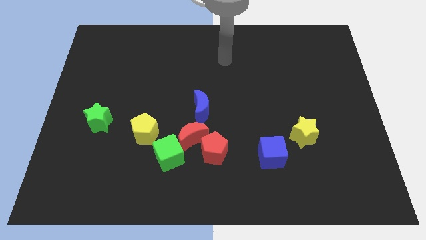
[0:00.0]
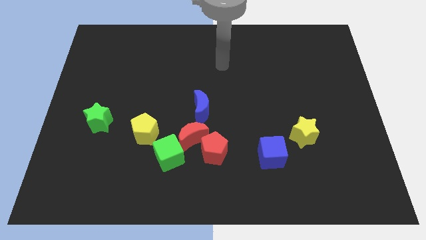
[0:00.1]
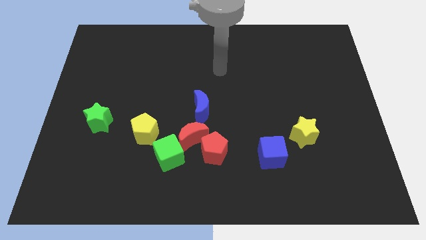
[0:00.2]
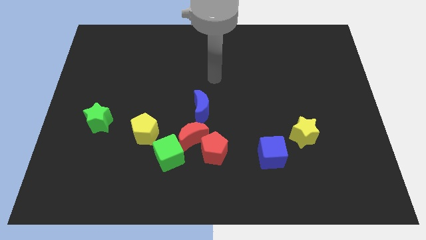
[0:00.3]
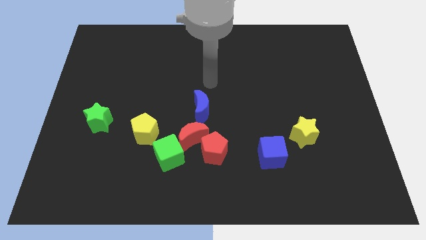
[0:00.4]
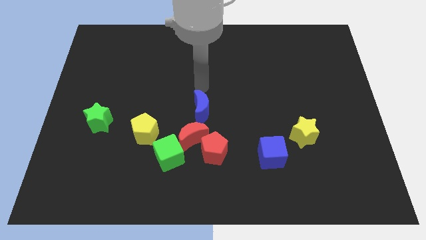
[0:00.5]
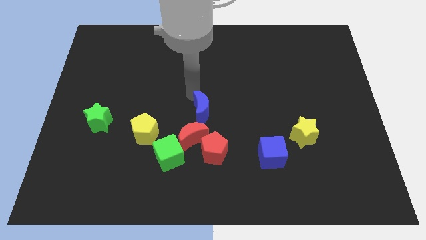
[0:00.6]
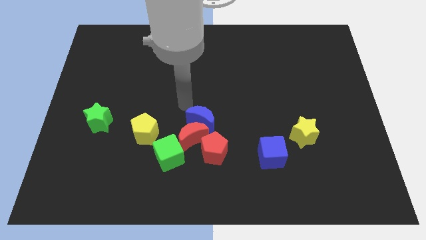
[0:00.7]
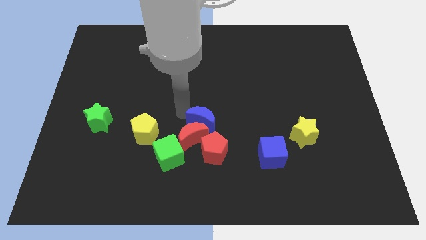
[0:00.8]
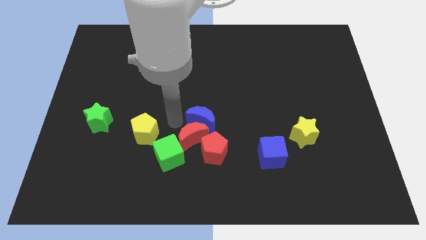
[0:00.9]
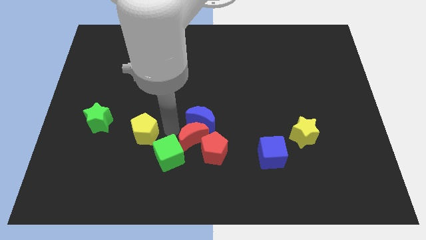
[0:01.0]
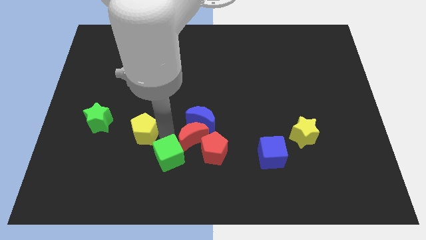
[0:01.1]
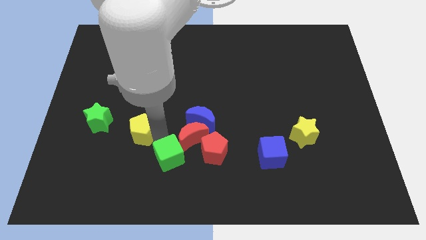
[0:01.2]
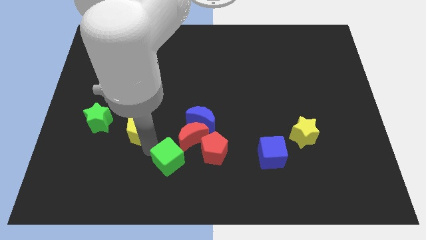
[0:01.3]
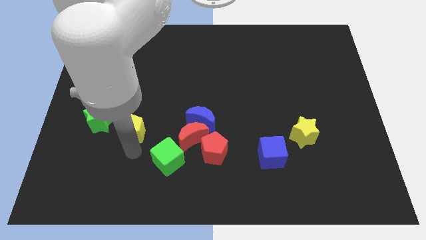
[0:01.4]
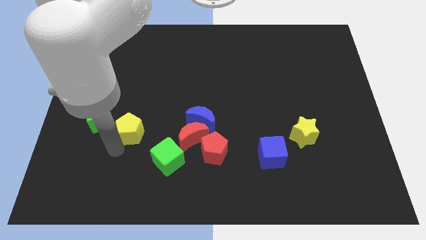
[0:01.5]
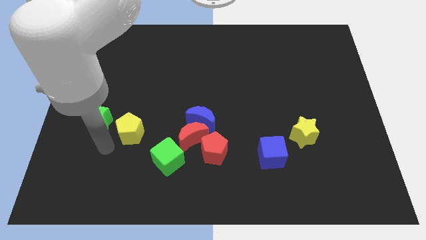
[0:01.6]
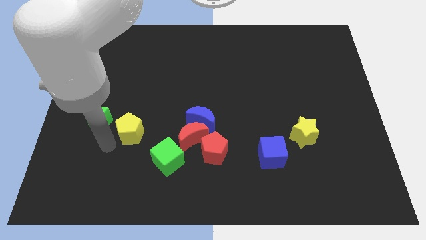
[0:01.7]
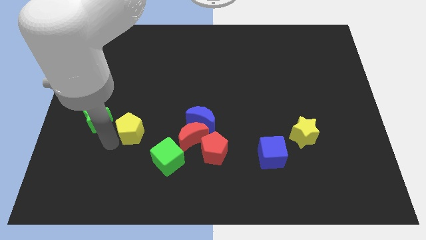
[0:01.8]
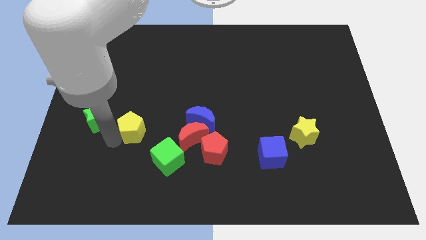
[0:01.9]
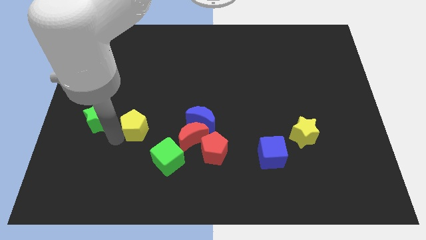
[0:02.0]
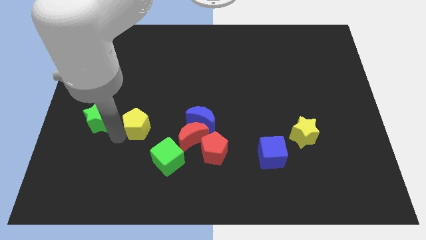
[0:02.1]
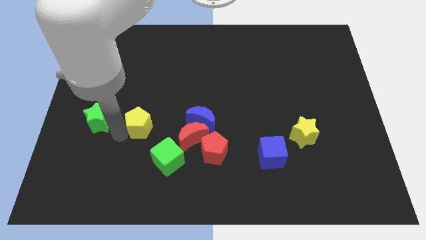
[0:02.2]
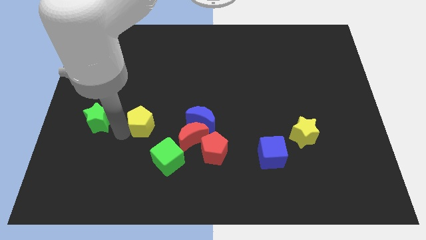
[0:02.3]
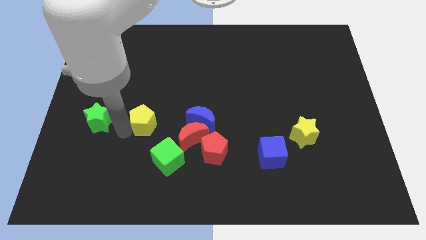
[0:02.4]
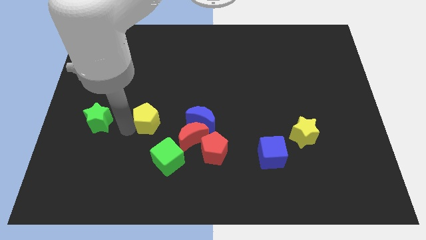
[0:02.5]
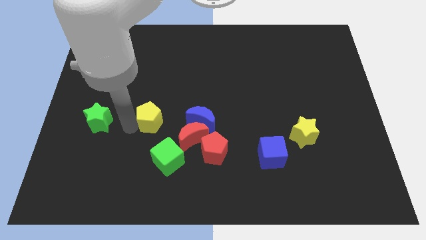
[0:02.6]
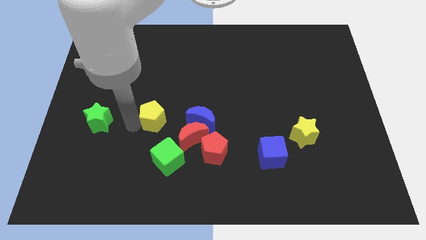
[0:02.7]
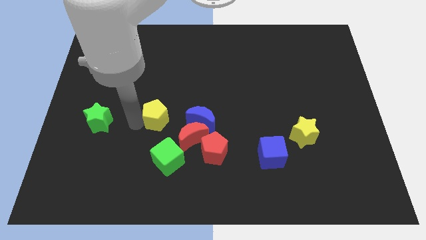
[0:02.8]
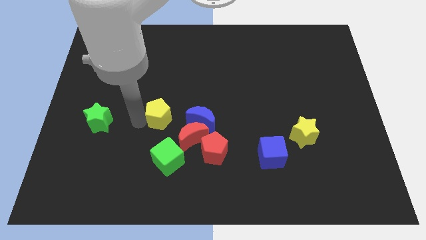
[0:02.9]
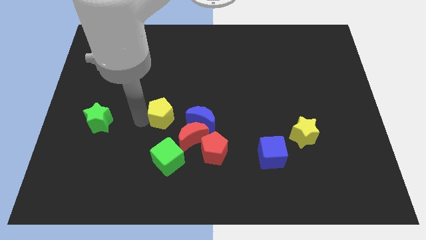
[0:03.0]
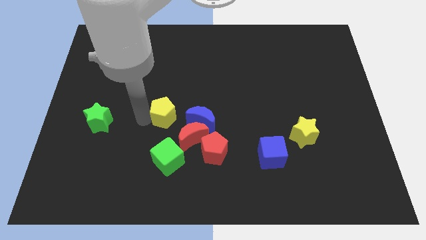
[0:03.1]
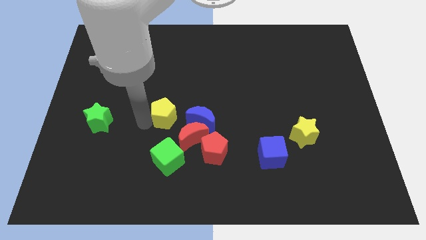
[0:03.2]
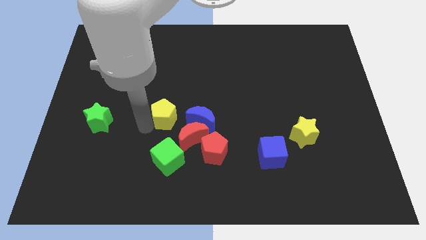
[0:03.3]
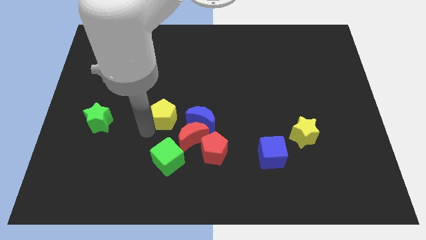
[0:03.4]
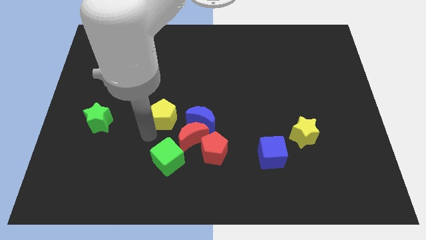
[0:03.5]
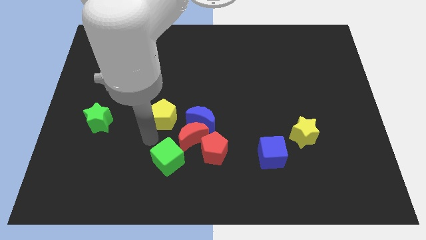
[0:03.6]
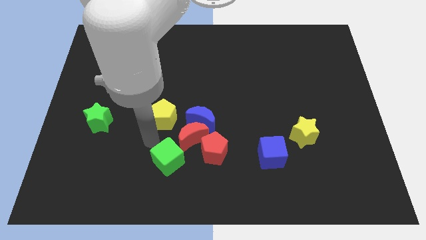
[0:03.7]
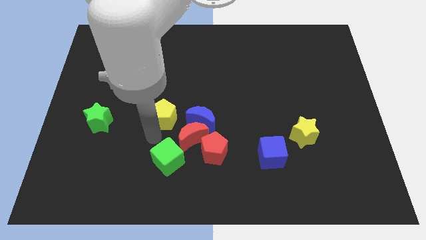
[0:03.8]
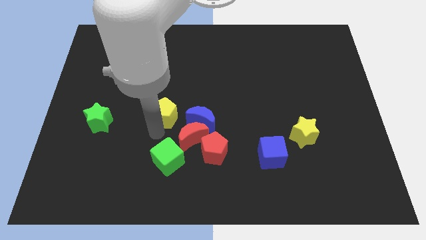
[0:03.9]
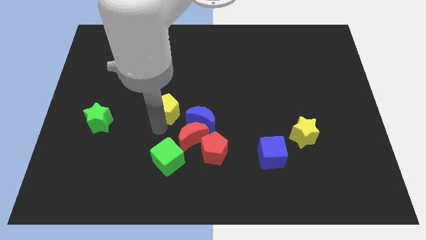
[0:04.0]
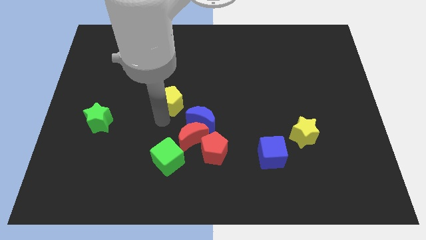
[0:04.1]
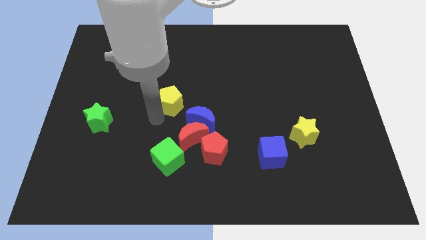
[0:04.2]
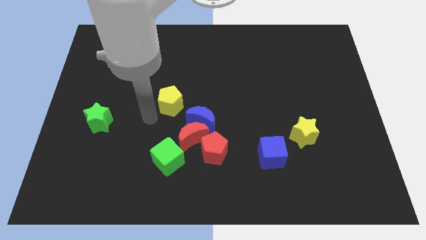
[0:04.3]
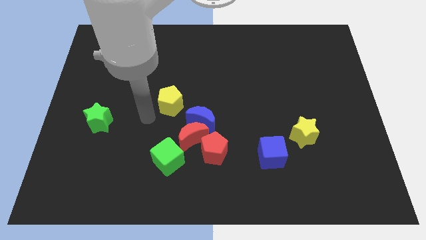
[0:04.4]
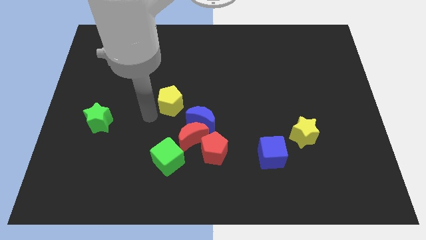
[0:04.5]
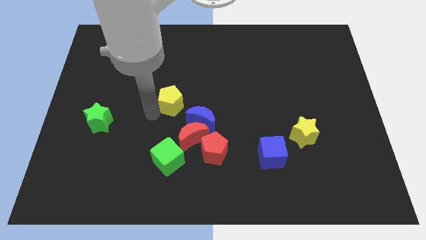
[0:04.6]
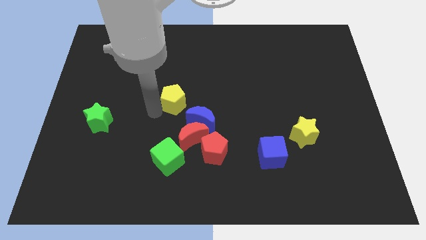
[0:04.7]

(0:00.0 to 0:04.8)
push the yellow pentagon to the top of the red moon

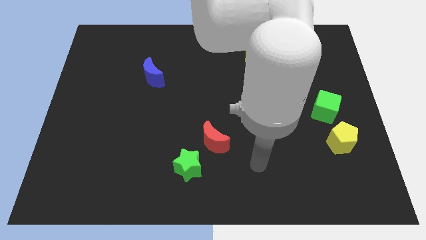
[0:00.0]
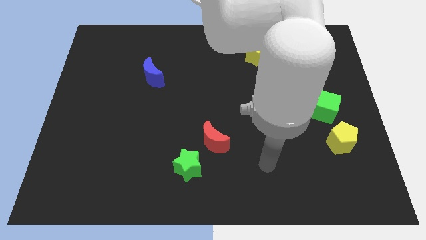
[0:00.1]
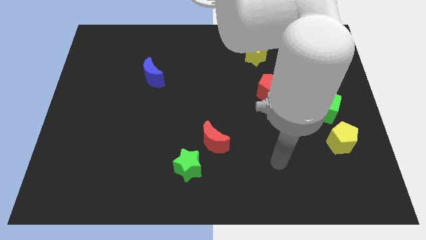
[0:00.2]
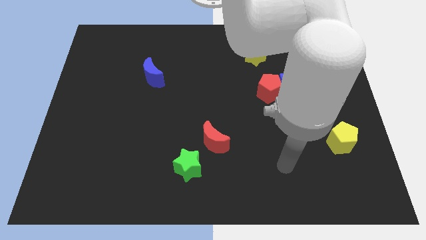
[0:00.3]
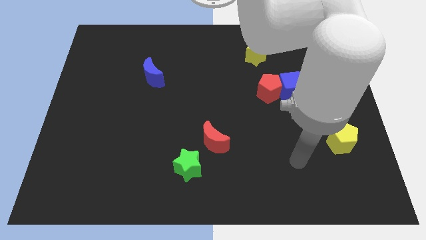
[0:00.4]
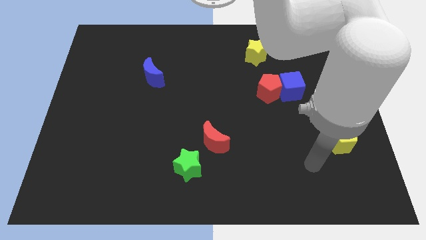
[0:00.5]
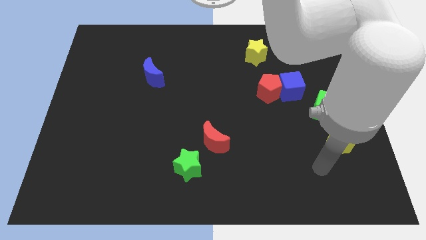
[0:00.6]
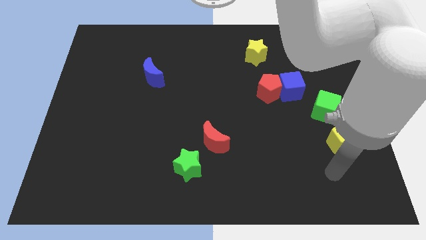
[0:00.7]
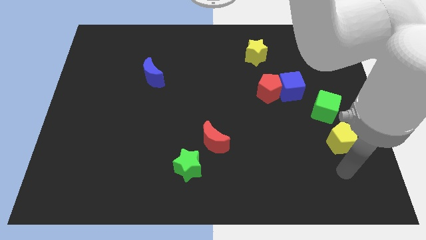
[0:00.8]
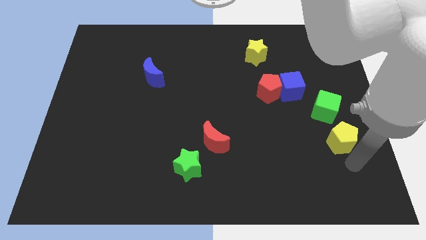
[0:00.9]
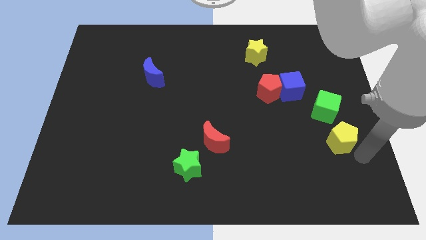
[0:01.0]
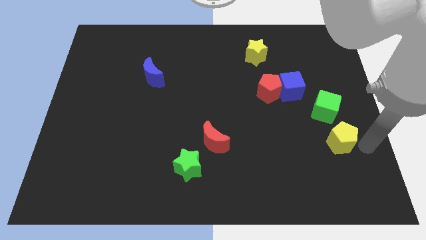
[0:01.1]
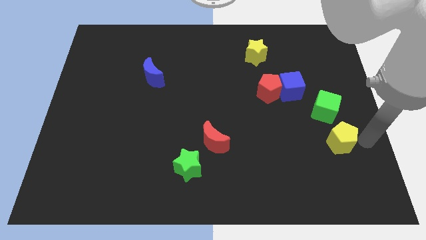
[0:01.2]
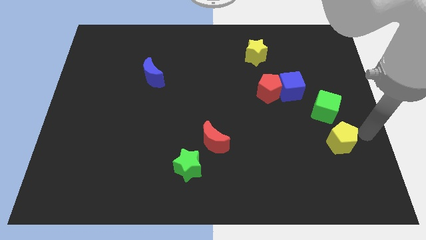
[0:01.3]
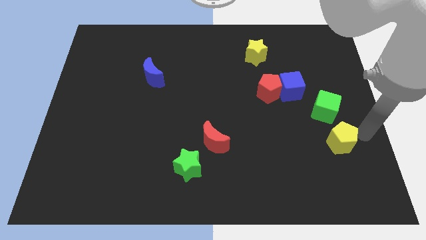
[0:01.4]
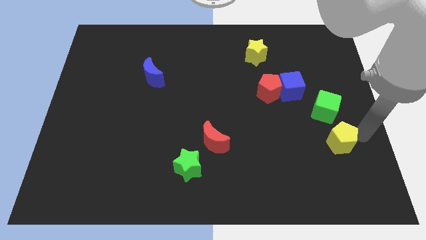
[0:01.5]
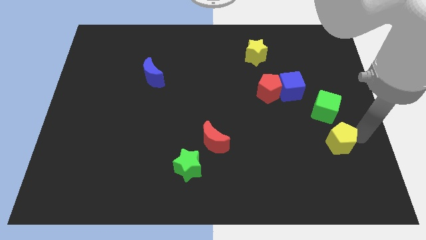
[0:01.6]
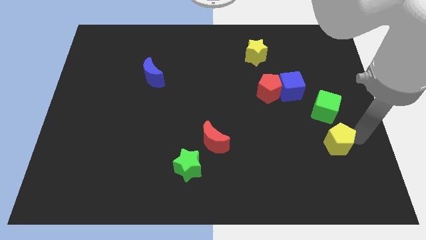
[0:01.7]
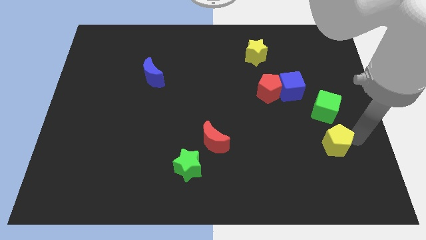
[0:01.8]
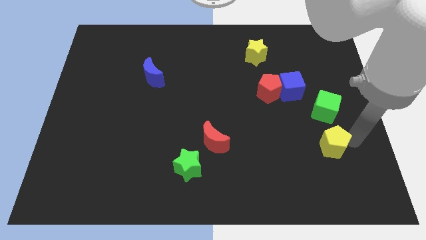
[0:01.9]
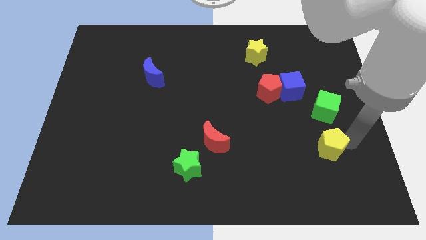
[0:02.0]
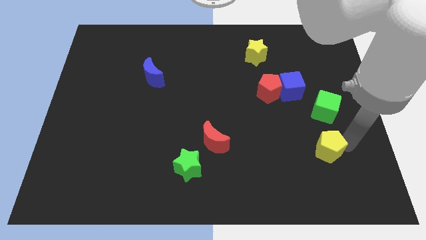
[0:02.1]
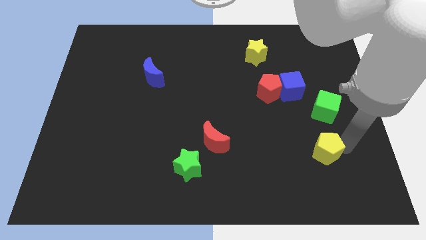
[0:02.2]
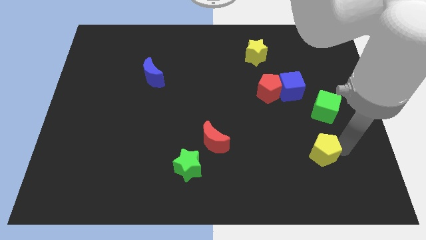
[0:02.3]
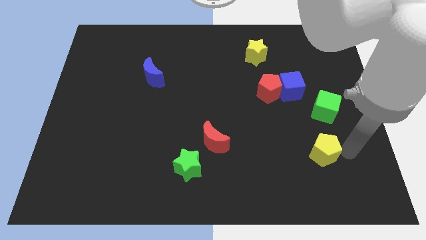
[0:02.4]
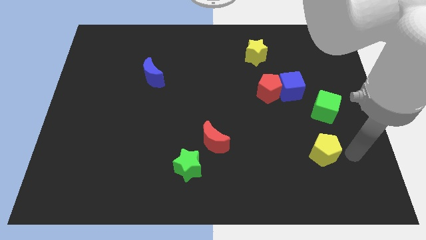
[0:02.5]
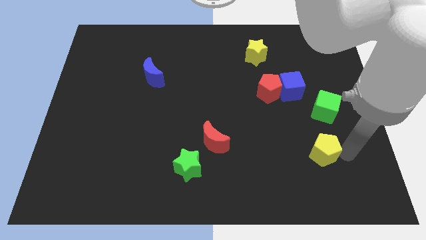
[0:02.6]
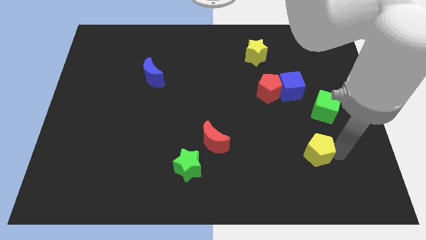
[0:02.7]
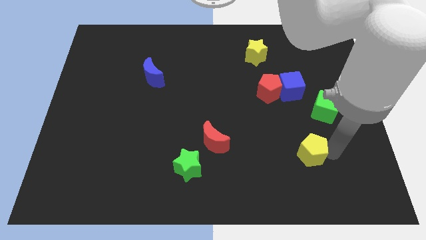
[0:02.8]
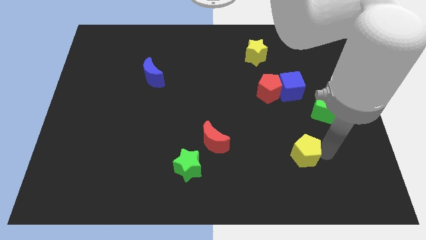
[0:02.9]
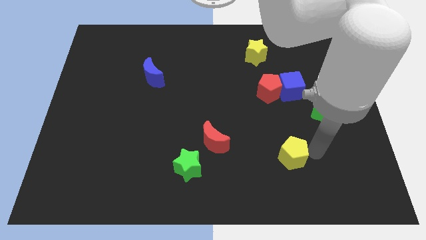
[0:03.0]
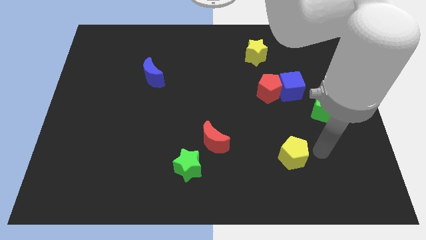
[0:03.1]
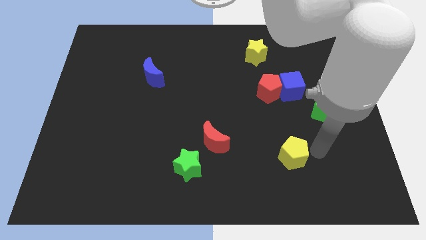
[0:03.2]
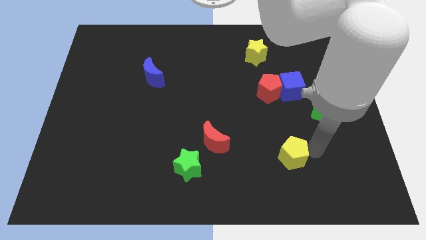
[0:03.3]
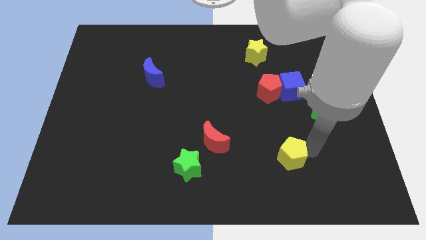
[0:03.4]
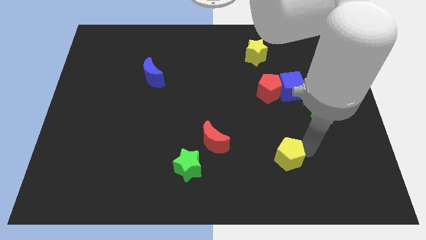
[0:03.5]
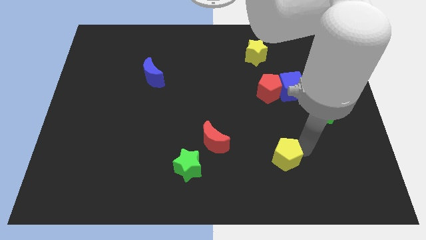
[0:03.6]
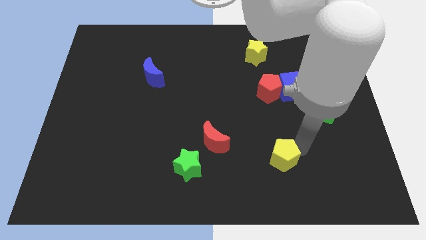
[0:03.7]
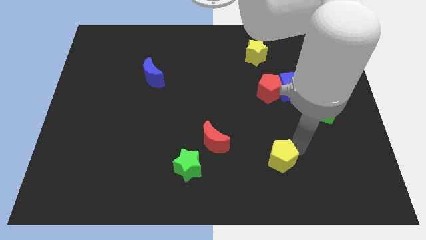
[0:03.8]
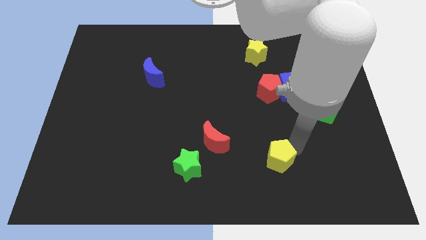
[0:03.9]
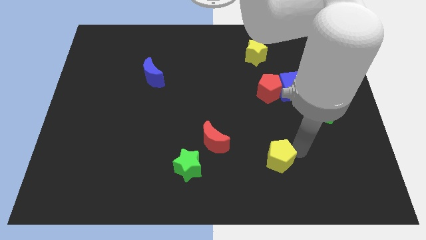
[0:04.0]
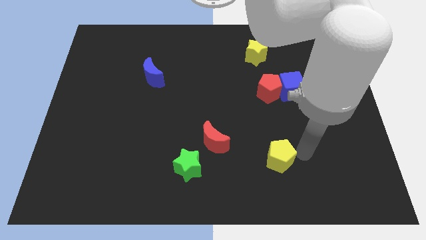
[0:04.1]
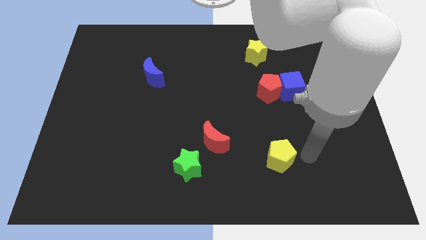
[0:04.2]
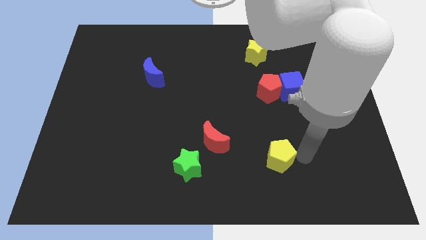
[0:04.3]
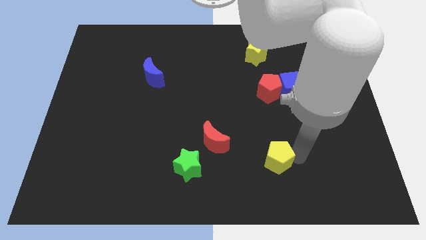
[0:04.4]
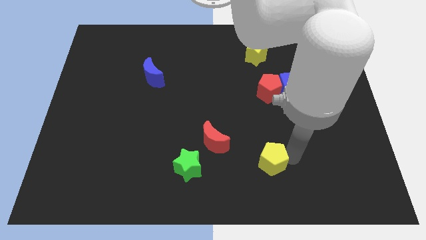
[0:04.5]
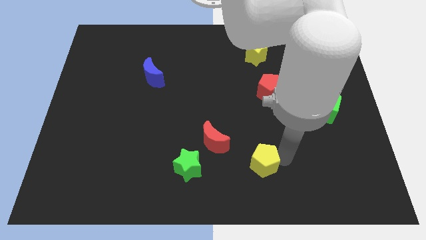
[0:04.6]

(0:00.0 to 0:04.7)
push the yellow pentagon to the bottom right of the red moon
